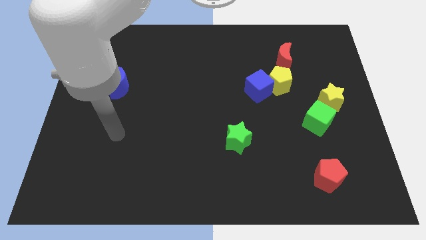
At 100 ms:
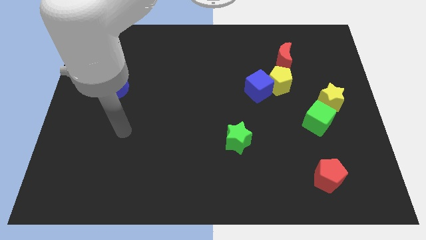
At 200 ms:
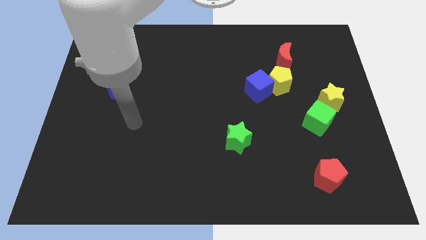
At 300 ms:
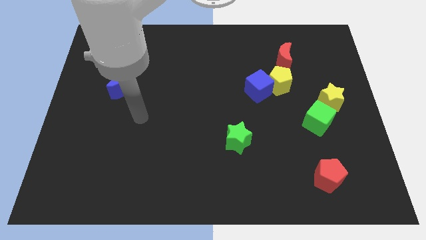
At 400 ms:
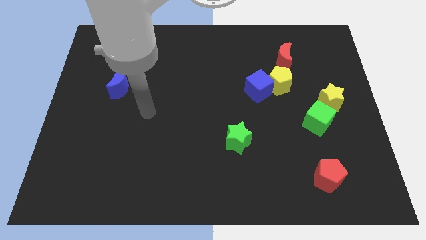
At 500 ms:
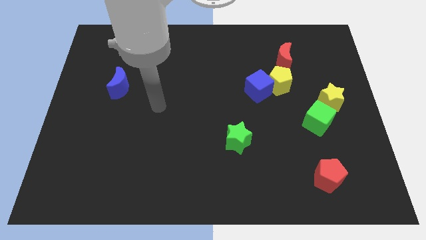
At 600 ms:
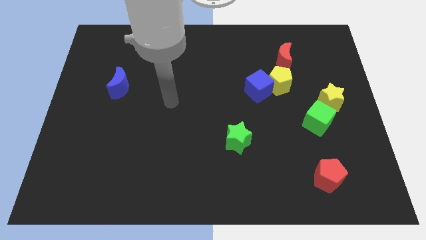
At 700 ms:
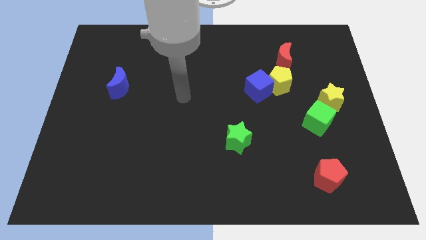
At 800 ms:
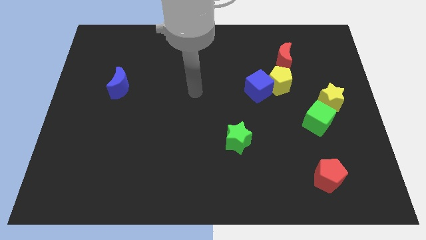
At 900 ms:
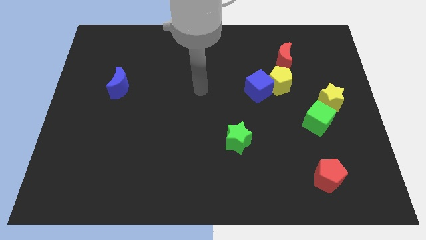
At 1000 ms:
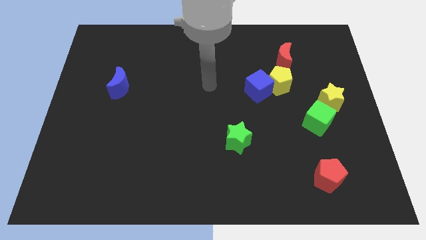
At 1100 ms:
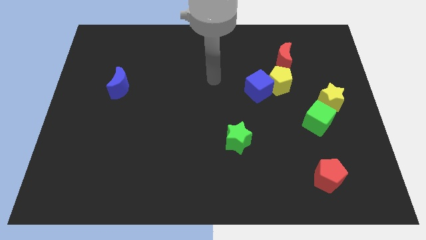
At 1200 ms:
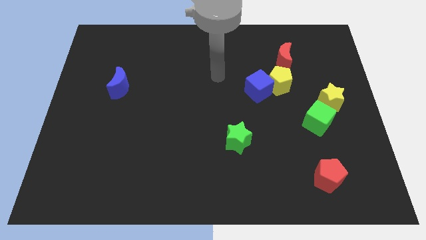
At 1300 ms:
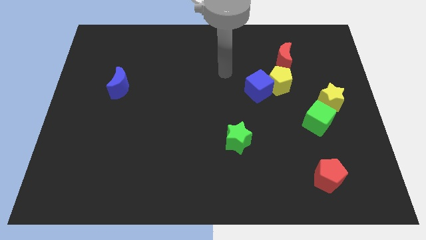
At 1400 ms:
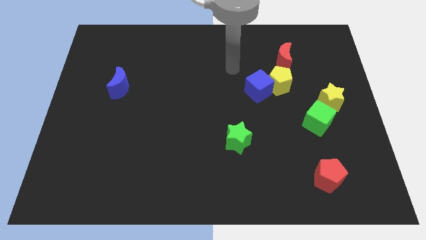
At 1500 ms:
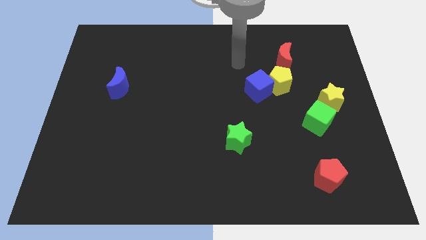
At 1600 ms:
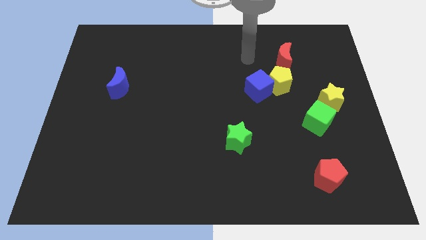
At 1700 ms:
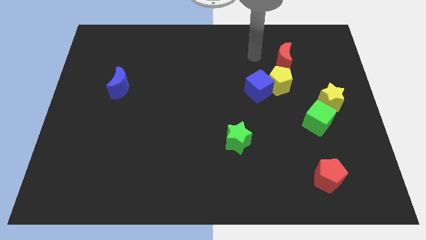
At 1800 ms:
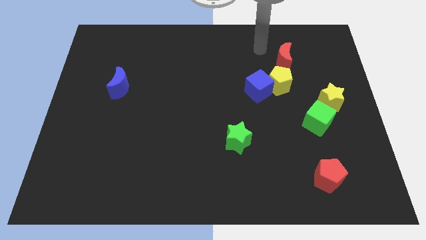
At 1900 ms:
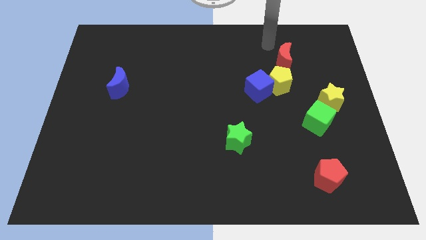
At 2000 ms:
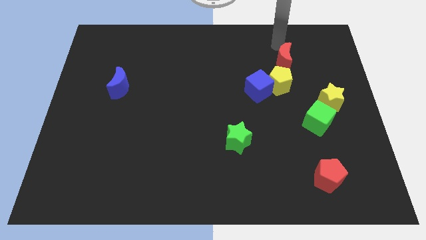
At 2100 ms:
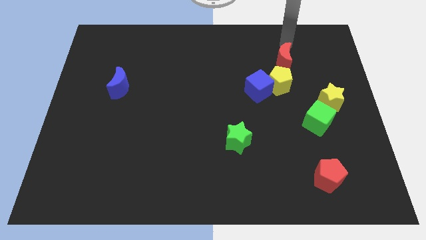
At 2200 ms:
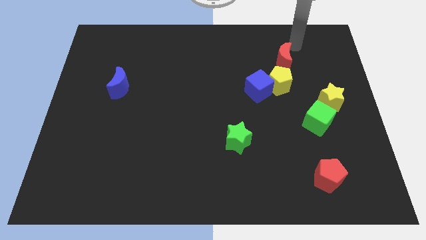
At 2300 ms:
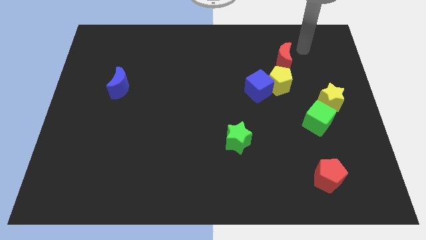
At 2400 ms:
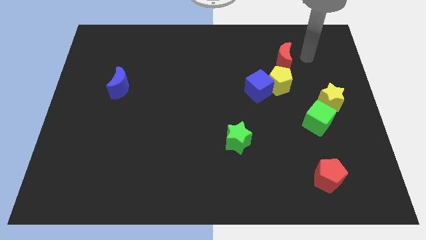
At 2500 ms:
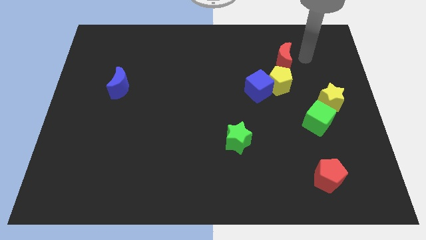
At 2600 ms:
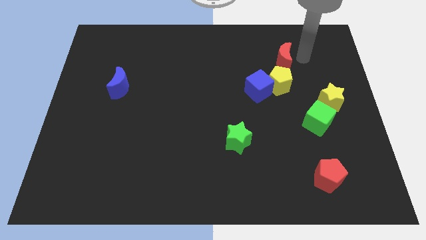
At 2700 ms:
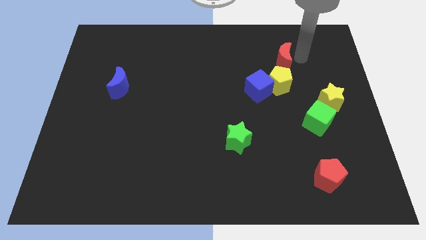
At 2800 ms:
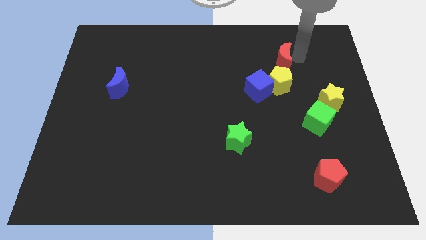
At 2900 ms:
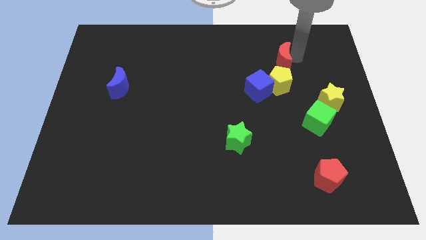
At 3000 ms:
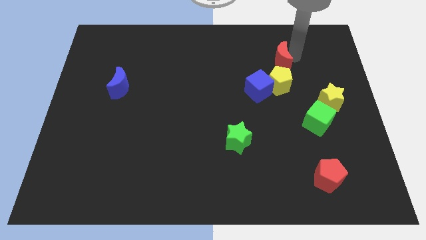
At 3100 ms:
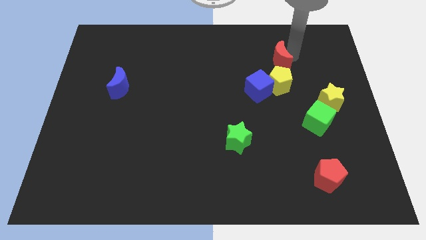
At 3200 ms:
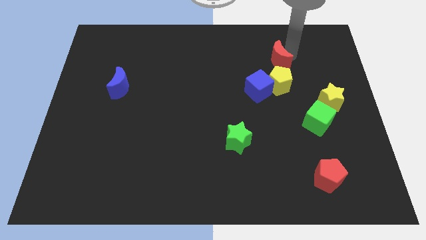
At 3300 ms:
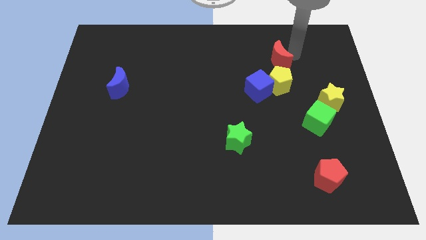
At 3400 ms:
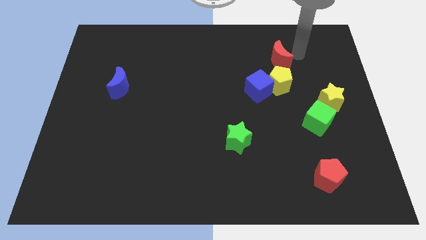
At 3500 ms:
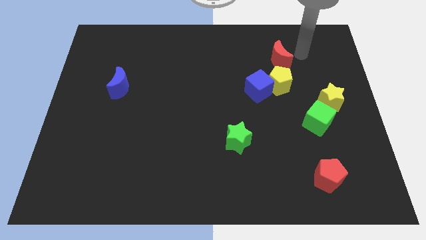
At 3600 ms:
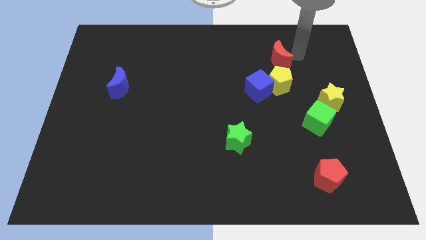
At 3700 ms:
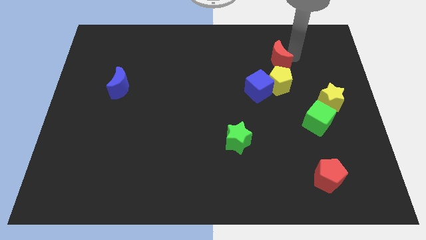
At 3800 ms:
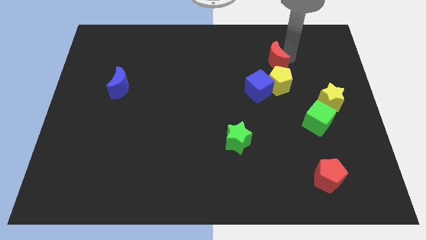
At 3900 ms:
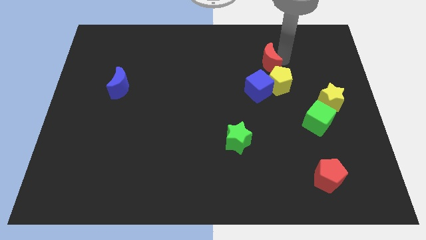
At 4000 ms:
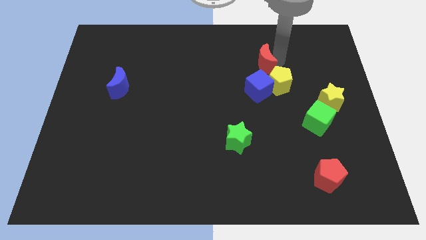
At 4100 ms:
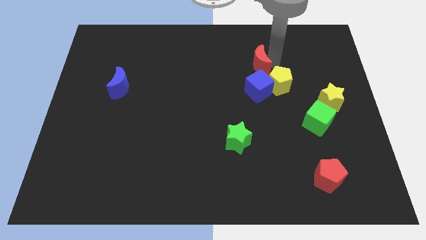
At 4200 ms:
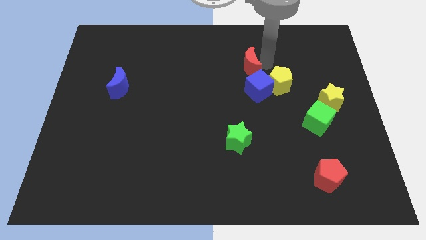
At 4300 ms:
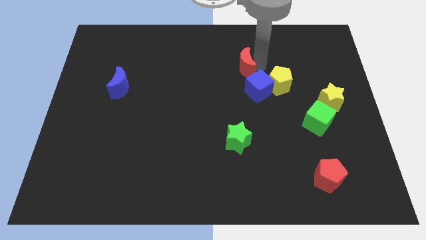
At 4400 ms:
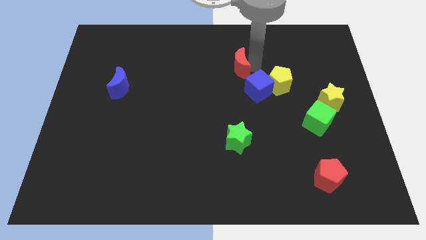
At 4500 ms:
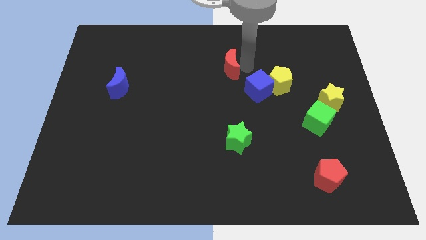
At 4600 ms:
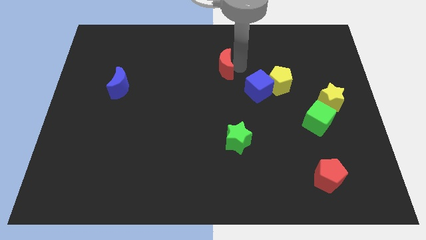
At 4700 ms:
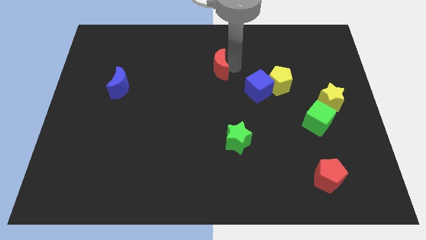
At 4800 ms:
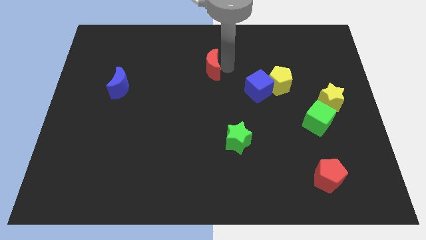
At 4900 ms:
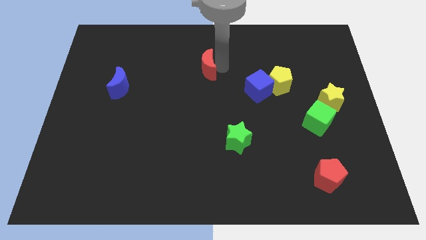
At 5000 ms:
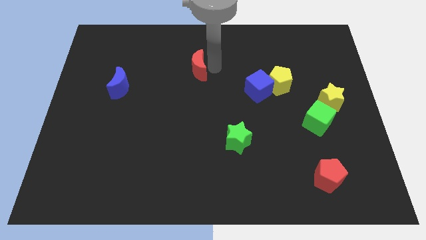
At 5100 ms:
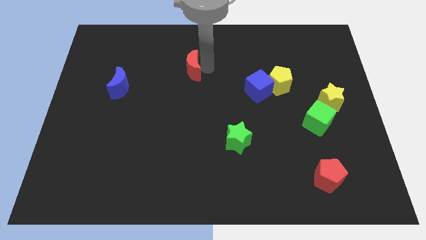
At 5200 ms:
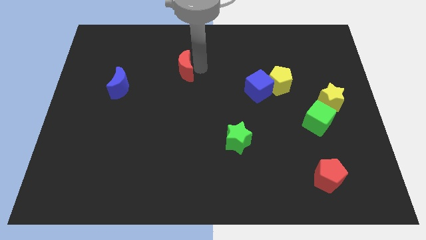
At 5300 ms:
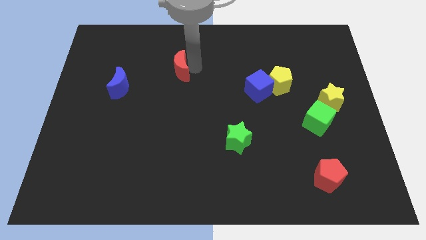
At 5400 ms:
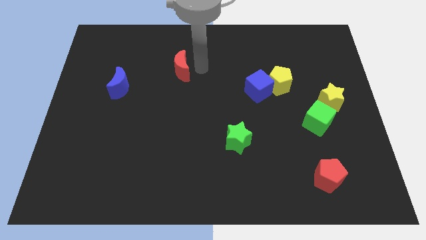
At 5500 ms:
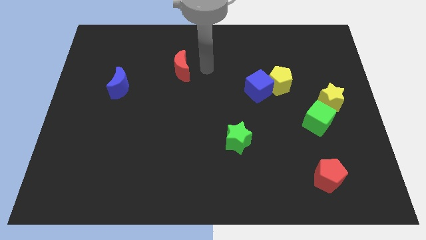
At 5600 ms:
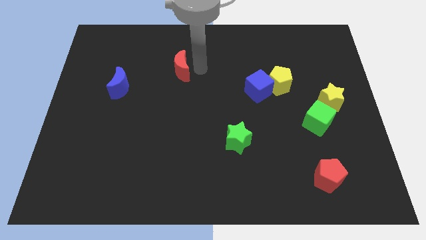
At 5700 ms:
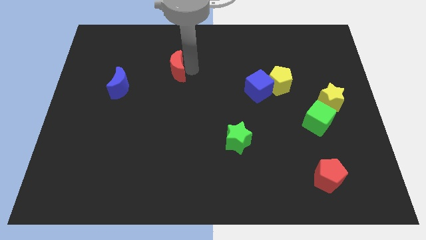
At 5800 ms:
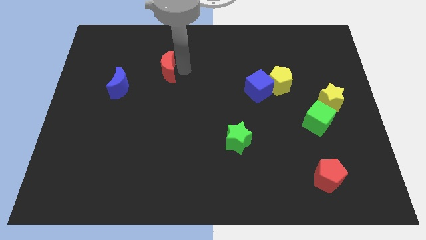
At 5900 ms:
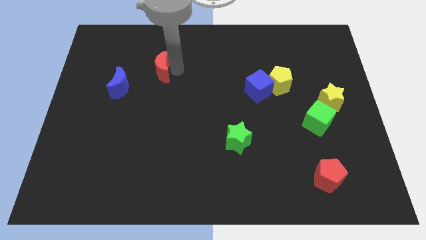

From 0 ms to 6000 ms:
put the red moon diagonally up and to the right of the blue moon

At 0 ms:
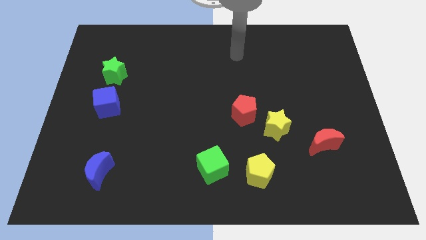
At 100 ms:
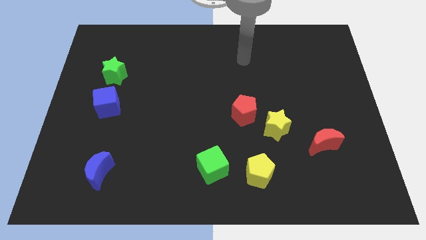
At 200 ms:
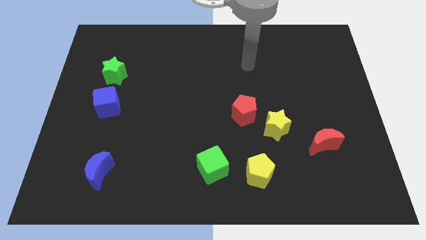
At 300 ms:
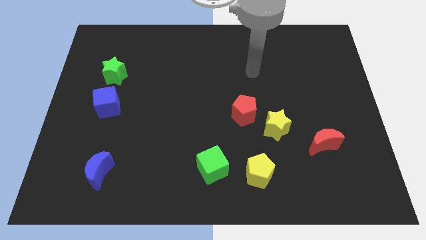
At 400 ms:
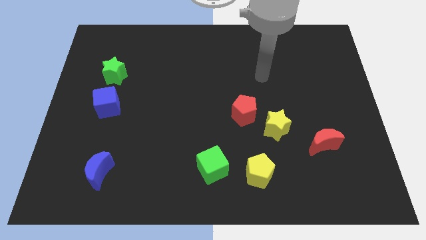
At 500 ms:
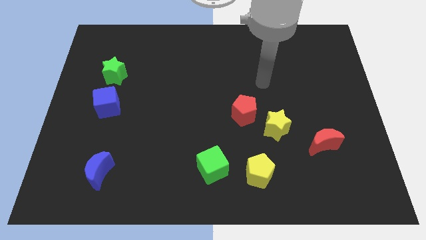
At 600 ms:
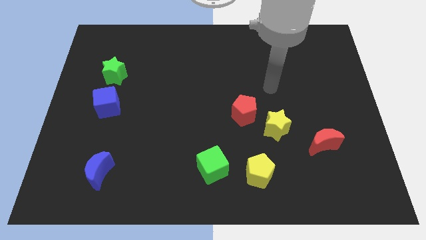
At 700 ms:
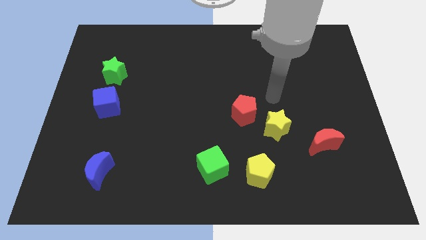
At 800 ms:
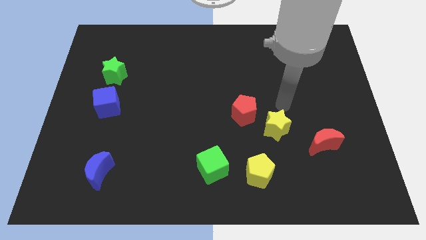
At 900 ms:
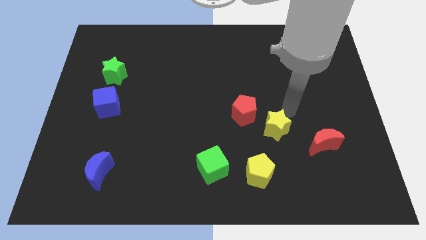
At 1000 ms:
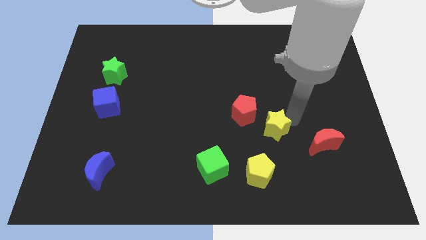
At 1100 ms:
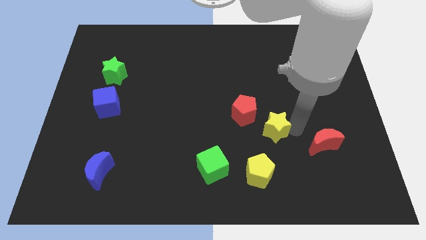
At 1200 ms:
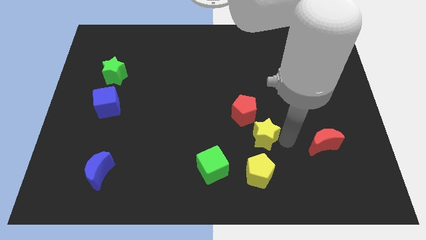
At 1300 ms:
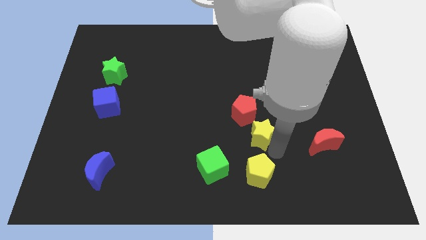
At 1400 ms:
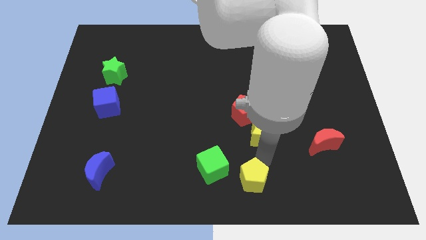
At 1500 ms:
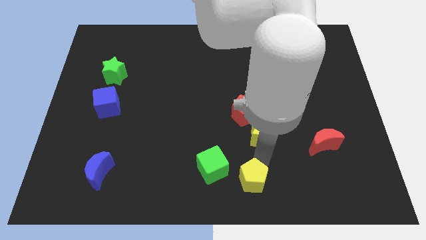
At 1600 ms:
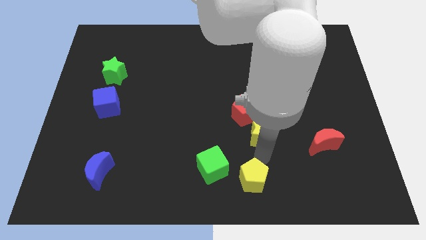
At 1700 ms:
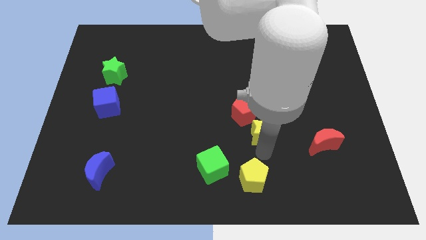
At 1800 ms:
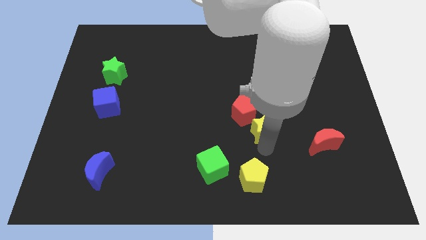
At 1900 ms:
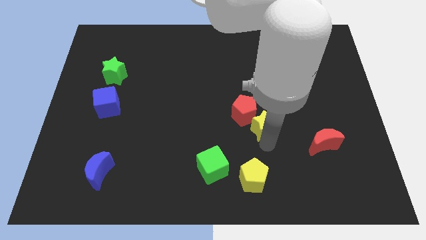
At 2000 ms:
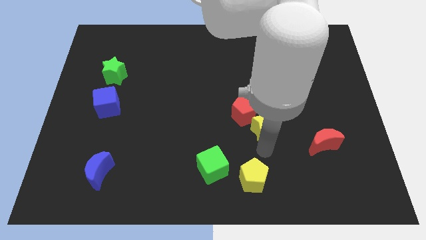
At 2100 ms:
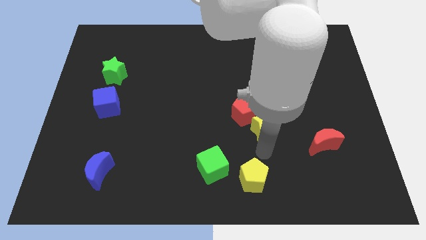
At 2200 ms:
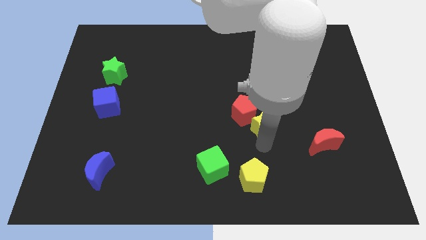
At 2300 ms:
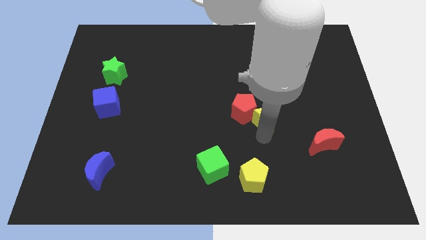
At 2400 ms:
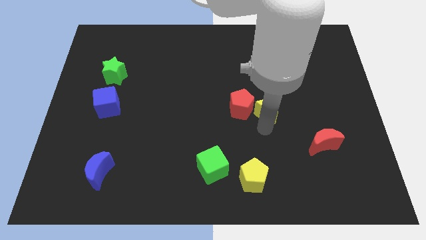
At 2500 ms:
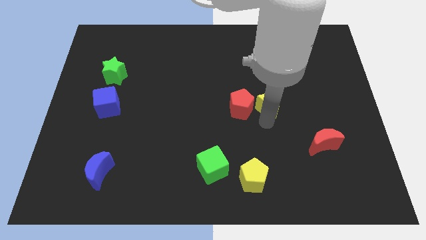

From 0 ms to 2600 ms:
move the yellow star to the top right side of the red pentagon
